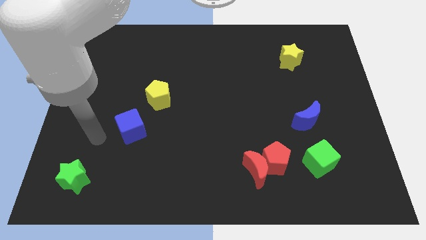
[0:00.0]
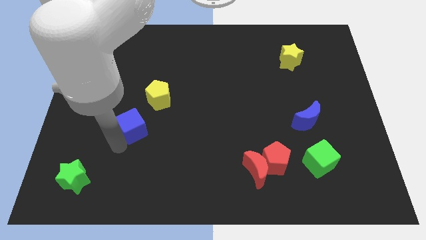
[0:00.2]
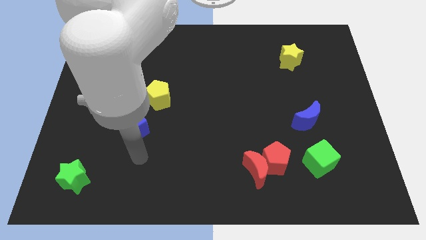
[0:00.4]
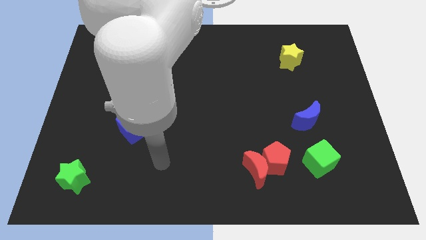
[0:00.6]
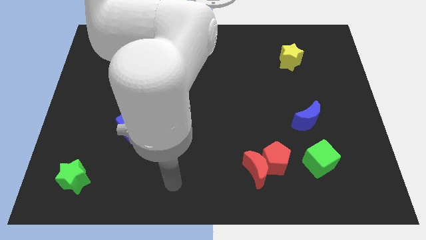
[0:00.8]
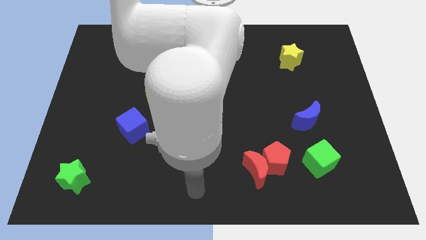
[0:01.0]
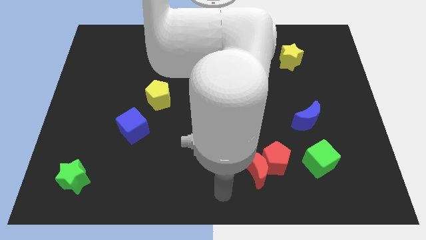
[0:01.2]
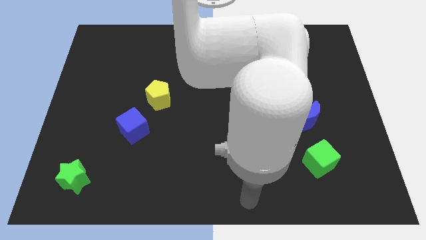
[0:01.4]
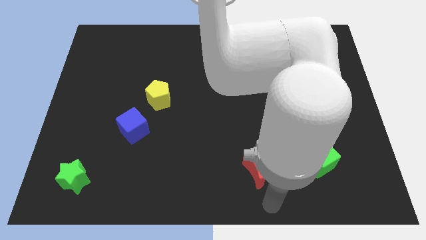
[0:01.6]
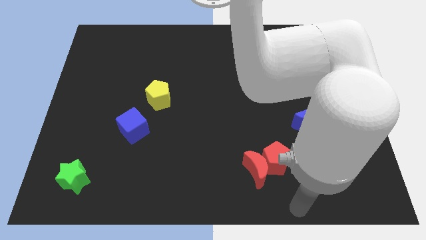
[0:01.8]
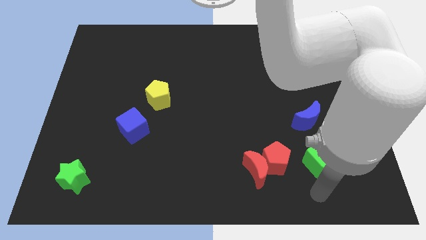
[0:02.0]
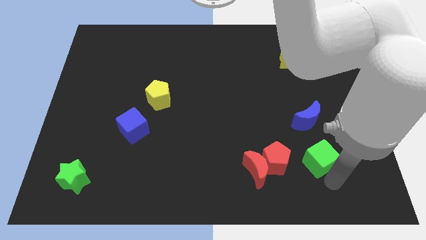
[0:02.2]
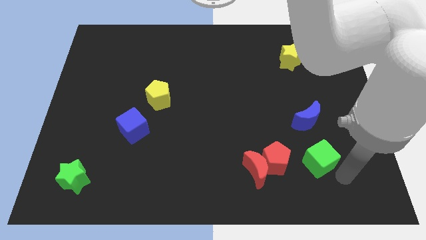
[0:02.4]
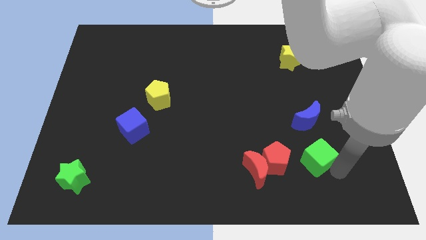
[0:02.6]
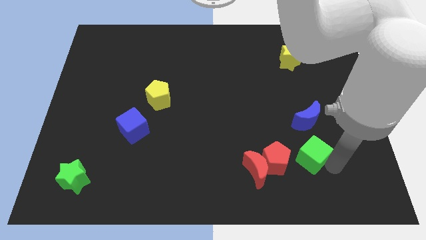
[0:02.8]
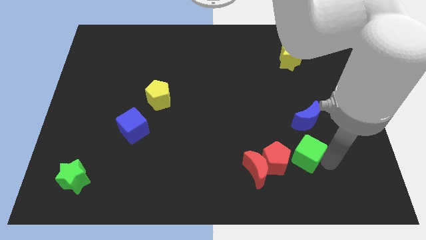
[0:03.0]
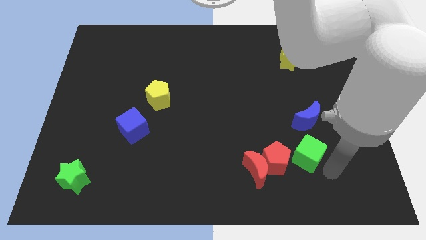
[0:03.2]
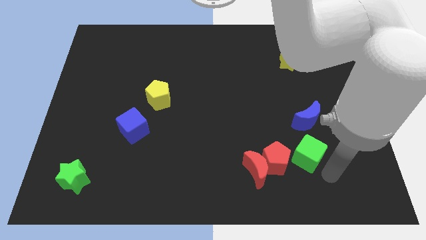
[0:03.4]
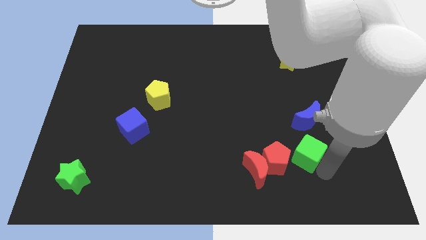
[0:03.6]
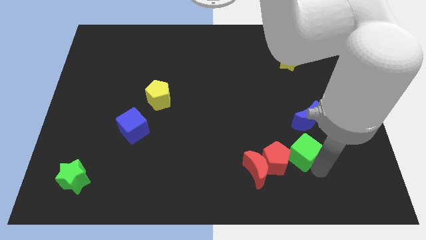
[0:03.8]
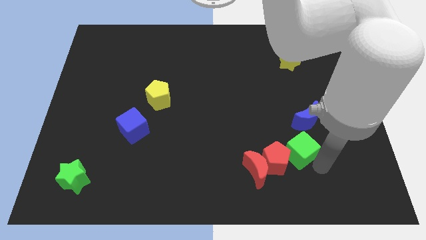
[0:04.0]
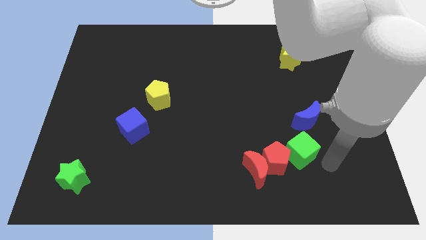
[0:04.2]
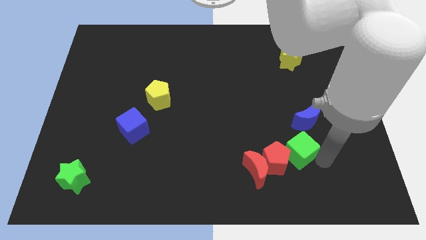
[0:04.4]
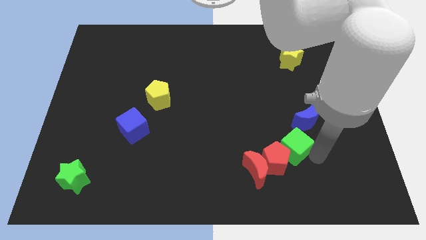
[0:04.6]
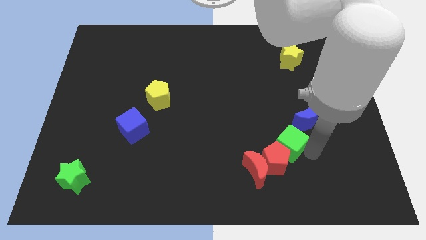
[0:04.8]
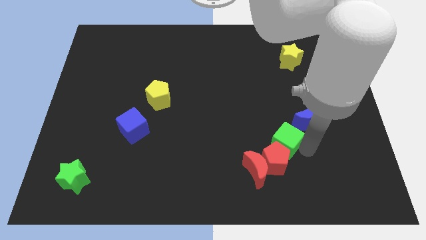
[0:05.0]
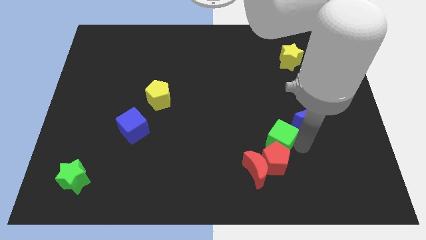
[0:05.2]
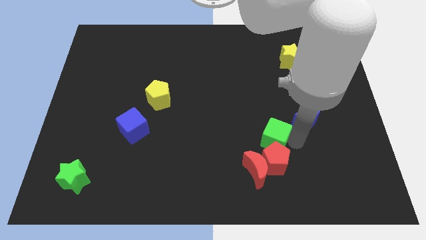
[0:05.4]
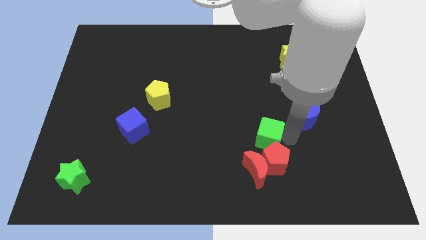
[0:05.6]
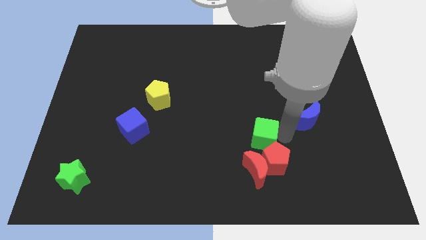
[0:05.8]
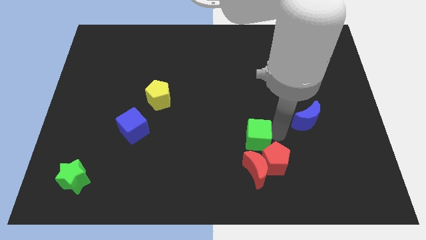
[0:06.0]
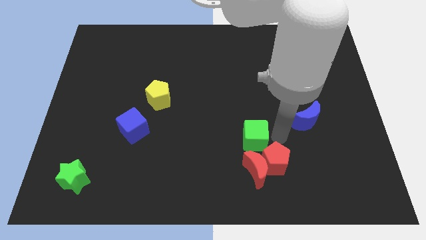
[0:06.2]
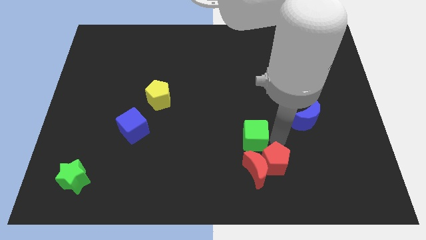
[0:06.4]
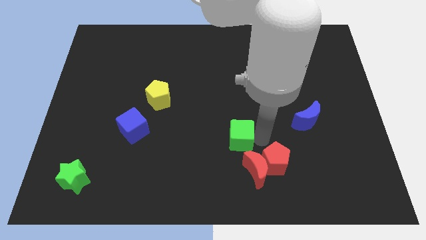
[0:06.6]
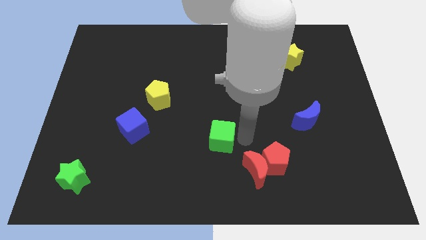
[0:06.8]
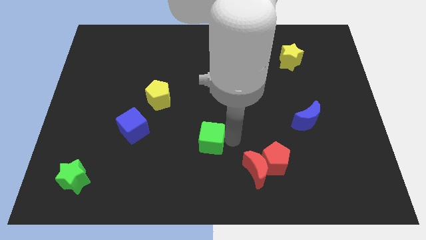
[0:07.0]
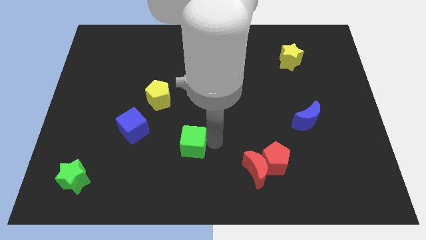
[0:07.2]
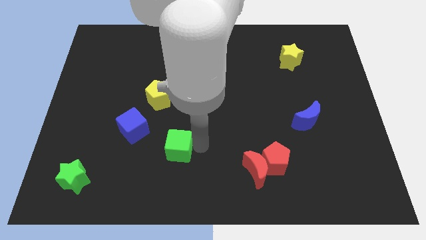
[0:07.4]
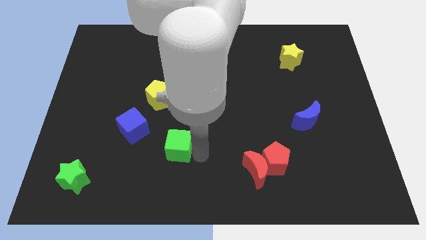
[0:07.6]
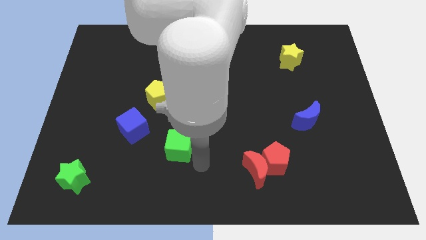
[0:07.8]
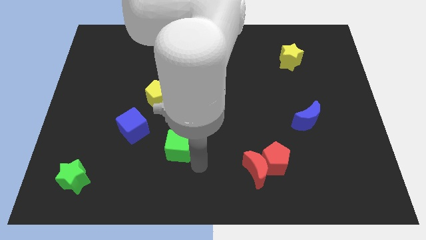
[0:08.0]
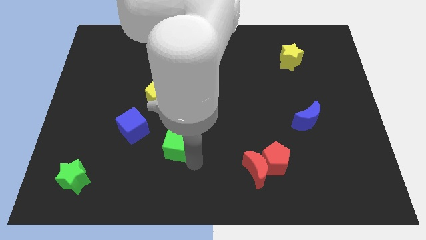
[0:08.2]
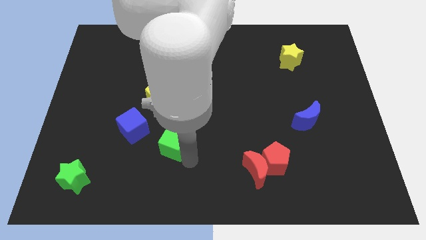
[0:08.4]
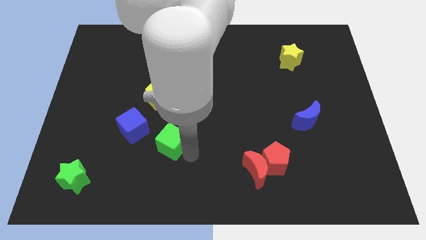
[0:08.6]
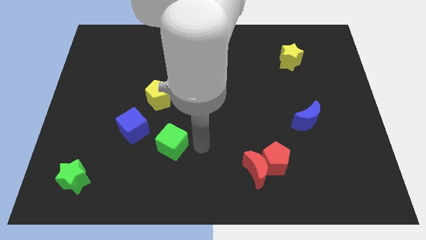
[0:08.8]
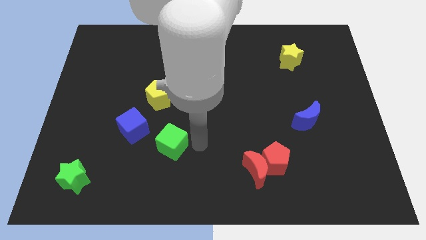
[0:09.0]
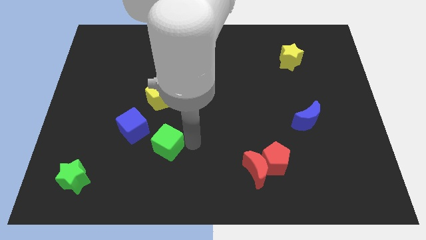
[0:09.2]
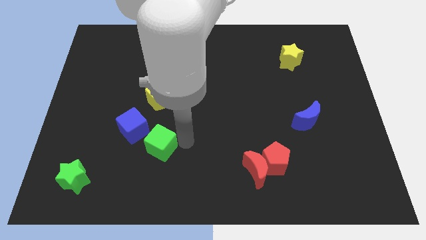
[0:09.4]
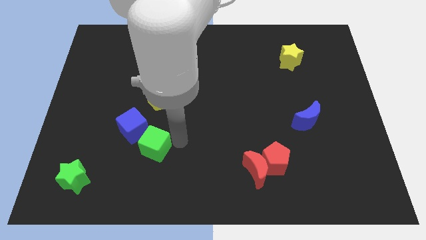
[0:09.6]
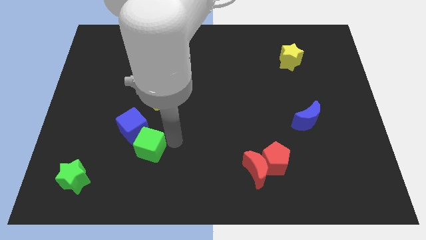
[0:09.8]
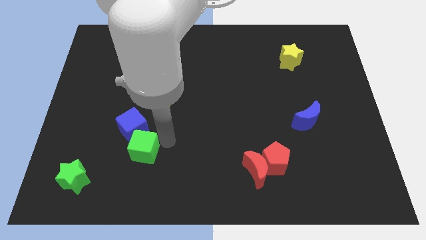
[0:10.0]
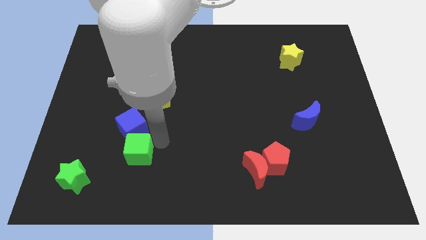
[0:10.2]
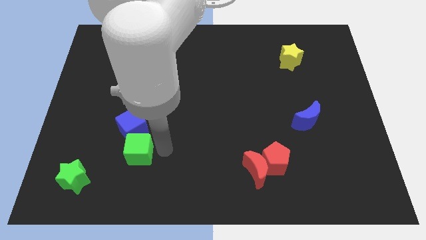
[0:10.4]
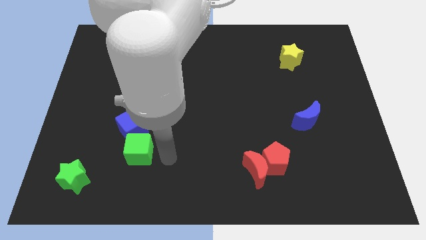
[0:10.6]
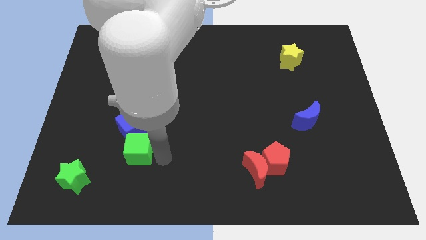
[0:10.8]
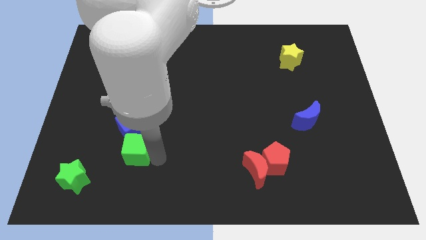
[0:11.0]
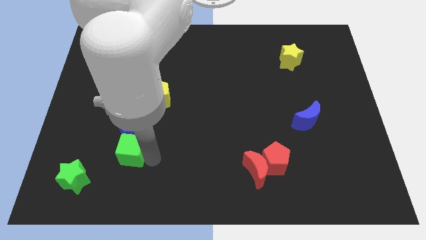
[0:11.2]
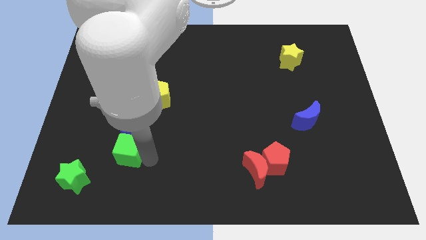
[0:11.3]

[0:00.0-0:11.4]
slide the green cube to the bottom left side of the blue cube

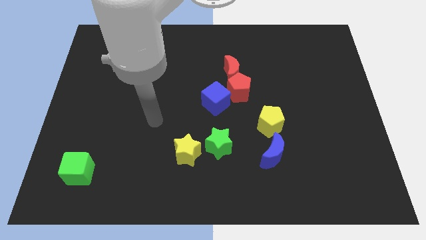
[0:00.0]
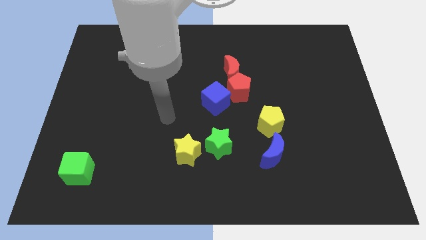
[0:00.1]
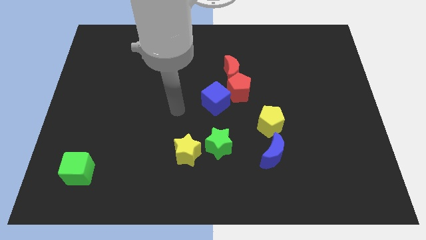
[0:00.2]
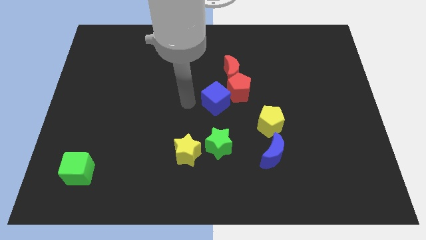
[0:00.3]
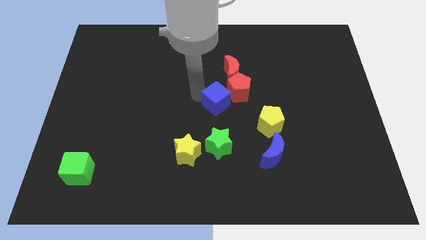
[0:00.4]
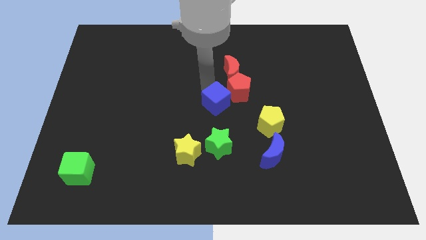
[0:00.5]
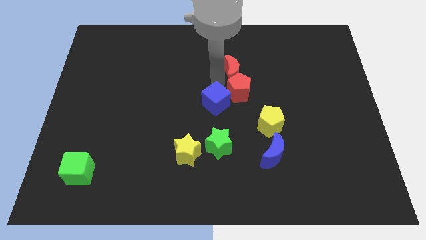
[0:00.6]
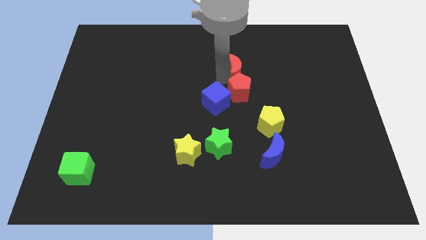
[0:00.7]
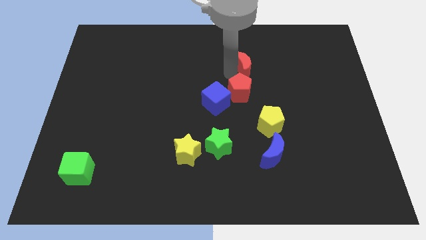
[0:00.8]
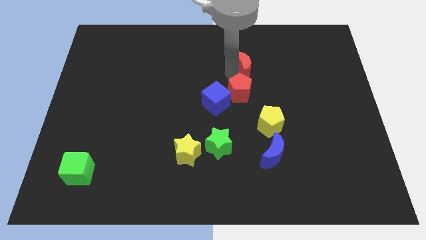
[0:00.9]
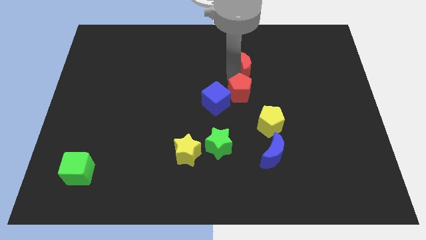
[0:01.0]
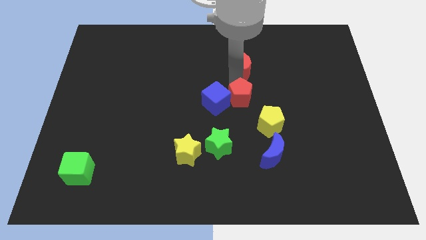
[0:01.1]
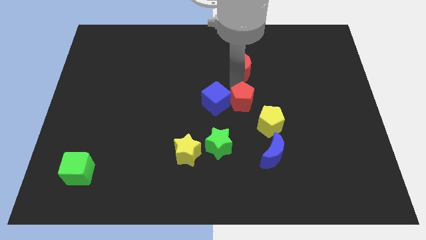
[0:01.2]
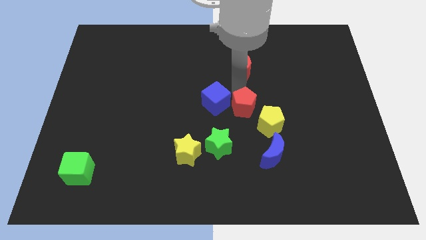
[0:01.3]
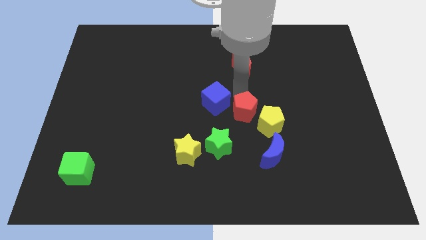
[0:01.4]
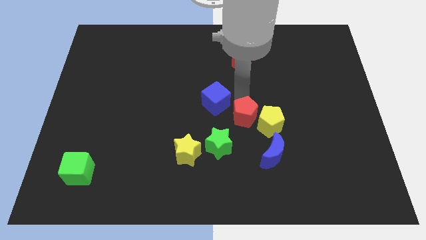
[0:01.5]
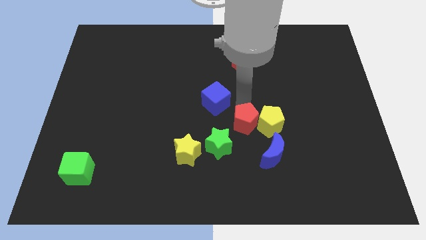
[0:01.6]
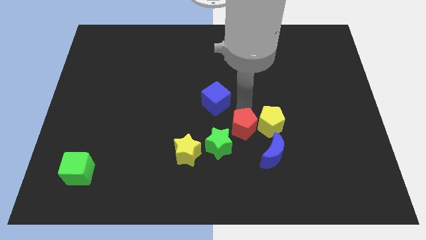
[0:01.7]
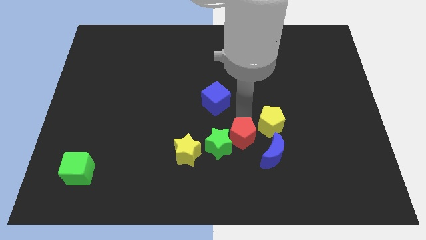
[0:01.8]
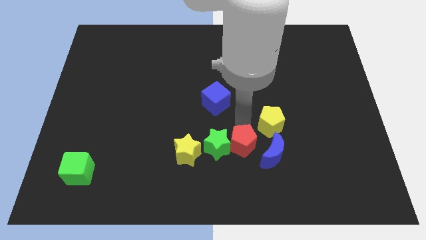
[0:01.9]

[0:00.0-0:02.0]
put the red pentagon to the bottom right side of the green star

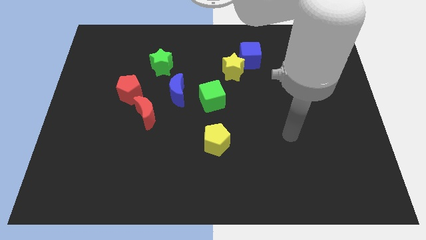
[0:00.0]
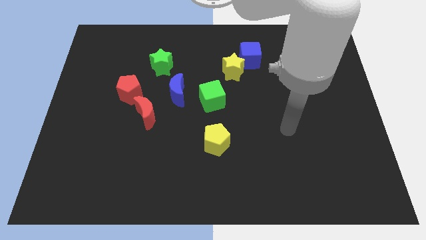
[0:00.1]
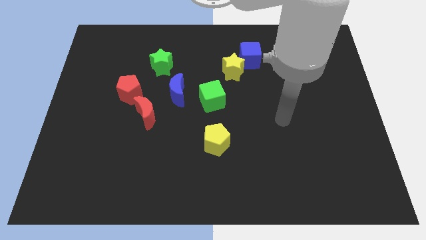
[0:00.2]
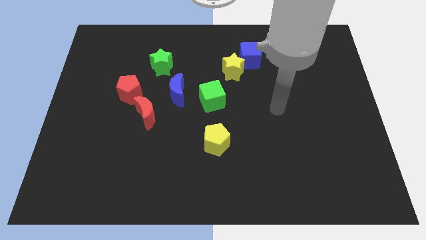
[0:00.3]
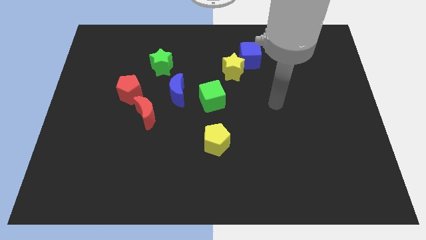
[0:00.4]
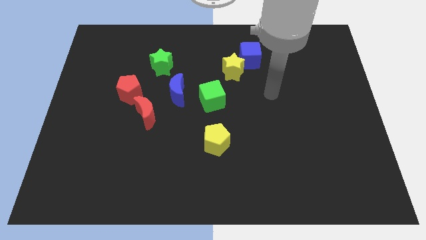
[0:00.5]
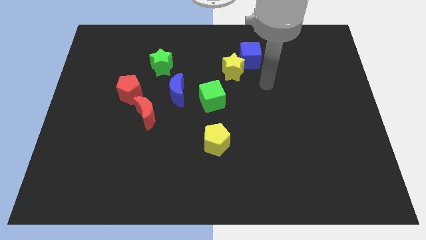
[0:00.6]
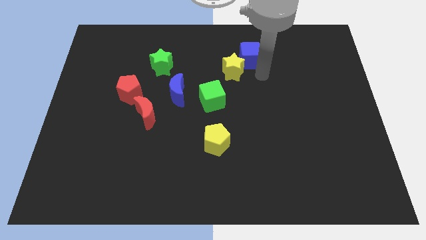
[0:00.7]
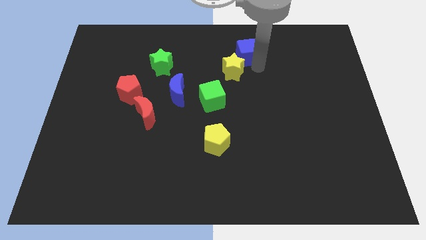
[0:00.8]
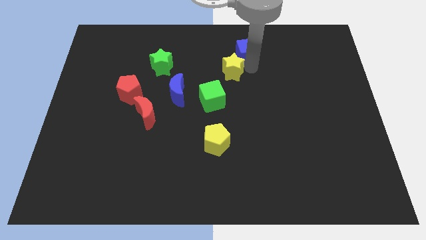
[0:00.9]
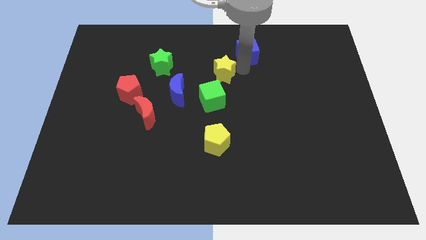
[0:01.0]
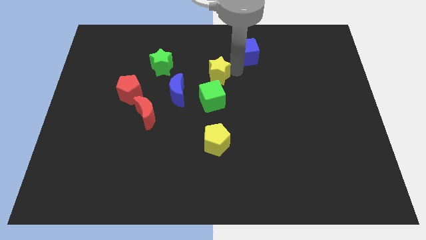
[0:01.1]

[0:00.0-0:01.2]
slide the yellow star to the top right of the blue moon
